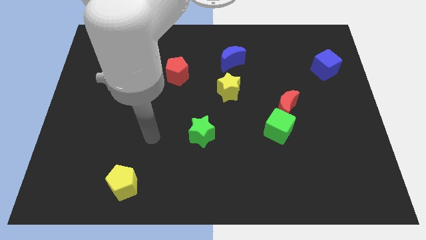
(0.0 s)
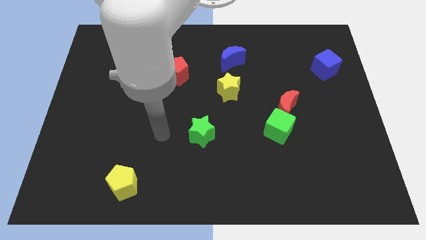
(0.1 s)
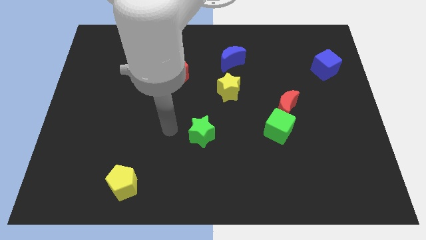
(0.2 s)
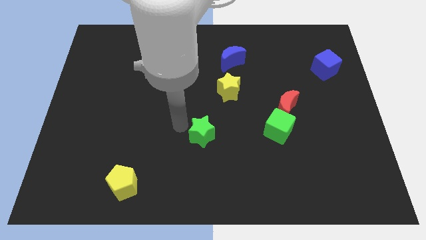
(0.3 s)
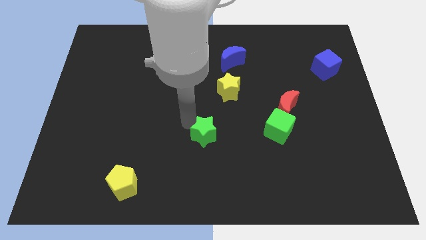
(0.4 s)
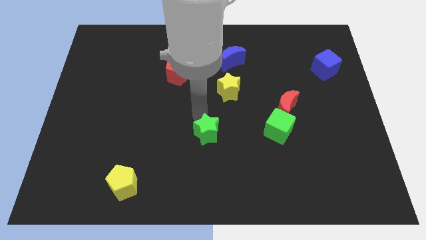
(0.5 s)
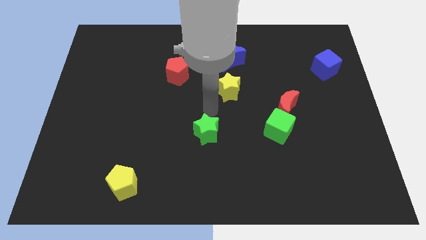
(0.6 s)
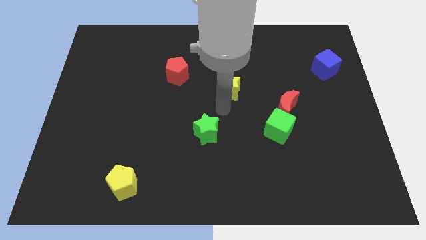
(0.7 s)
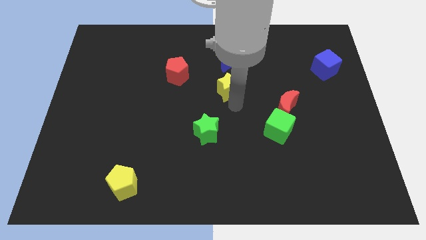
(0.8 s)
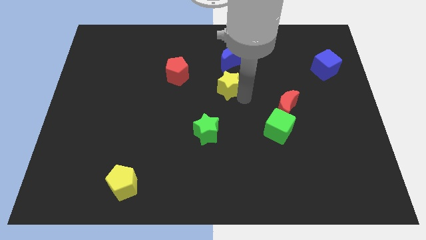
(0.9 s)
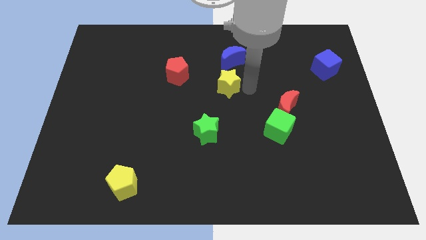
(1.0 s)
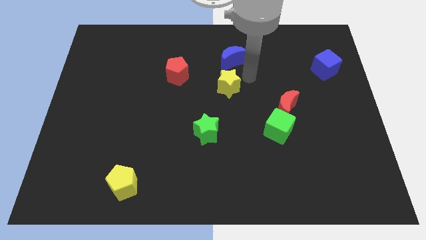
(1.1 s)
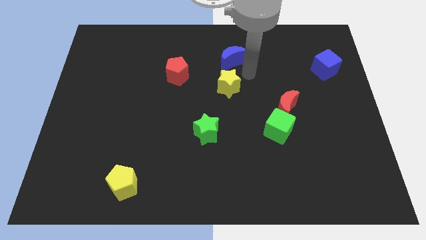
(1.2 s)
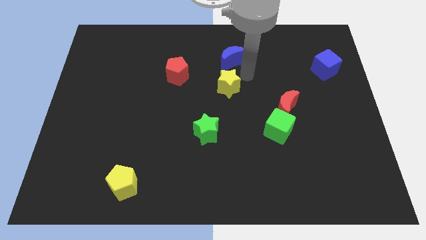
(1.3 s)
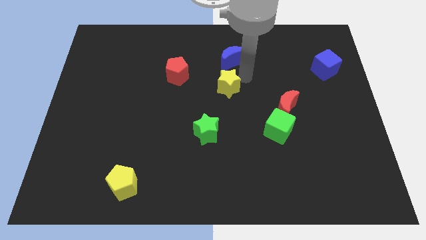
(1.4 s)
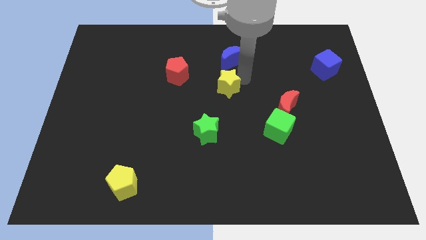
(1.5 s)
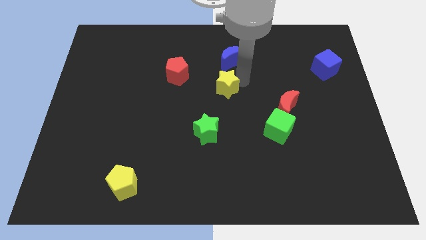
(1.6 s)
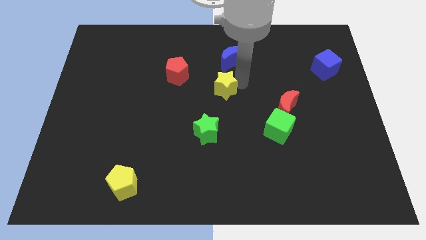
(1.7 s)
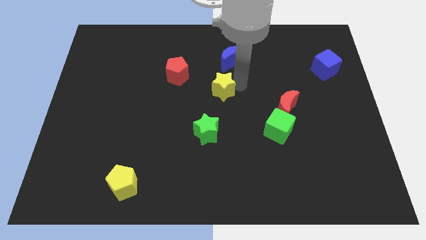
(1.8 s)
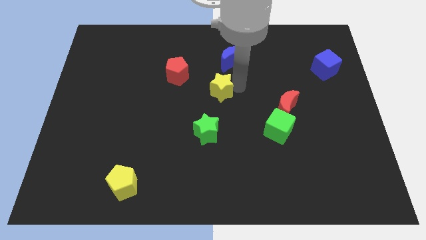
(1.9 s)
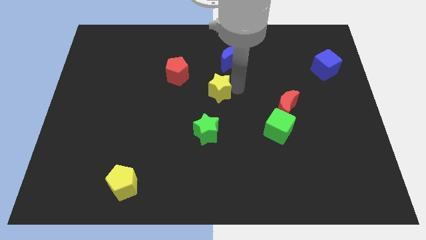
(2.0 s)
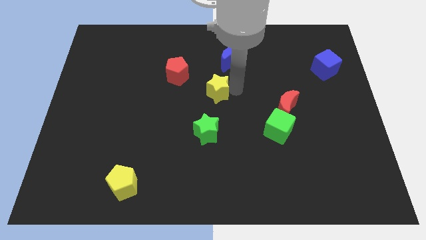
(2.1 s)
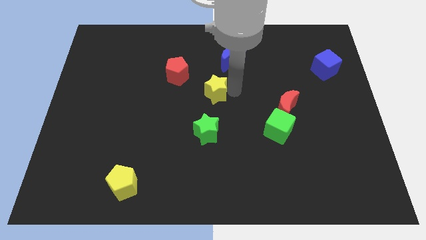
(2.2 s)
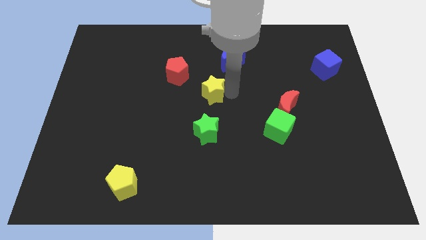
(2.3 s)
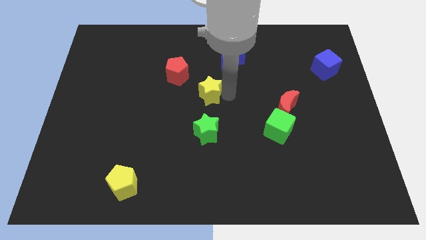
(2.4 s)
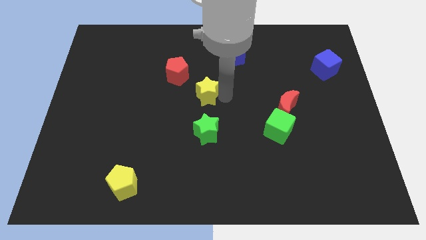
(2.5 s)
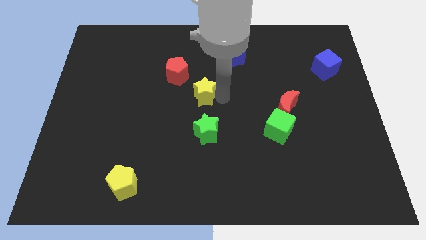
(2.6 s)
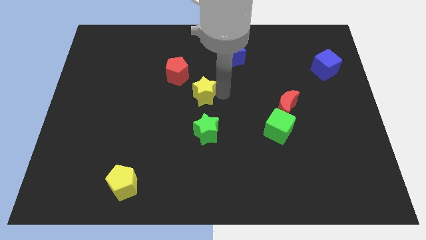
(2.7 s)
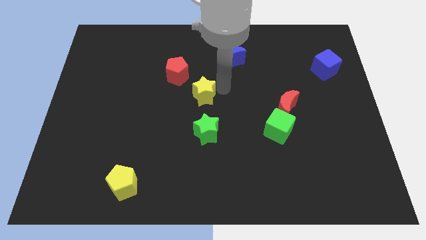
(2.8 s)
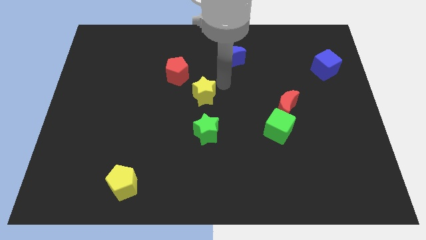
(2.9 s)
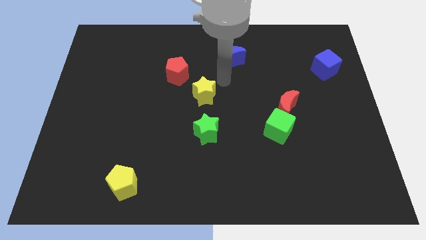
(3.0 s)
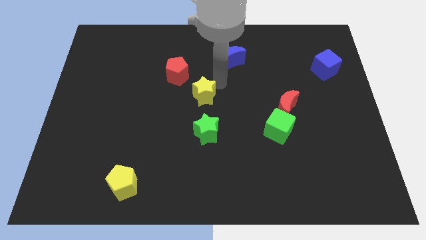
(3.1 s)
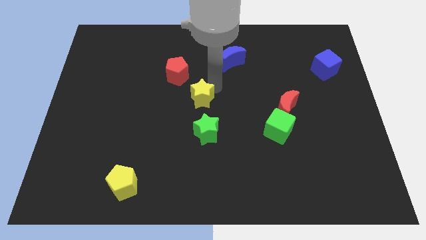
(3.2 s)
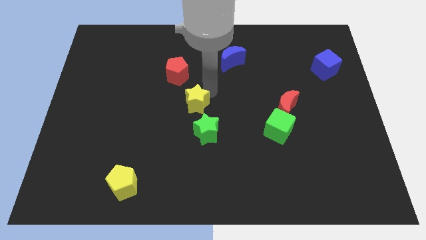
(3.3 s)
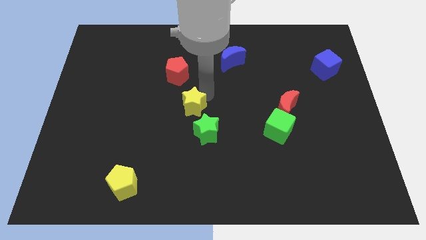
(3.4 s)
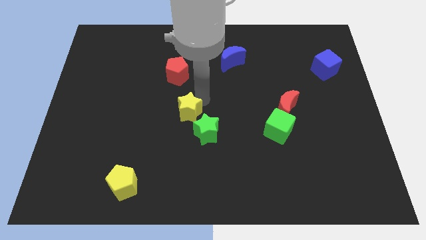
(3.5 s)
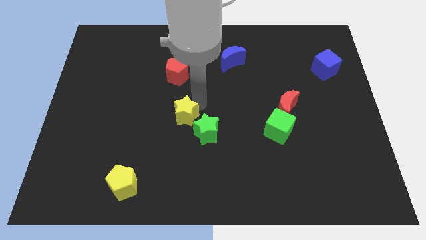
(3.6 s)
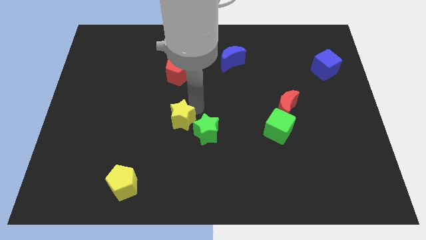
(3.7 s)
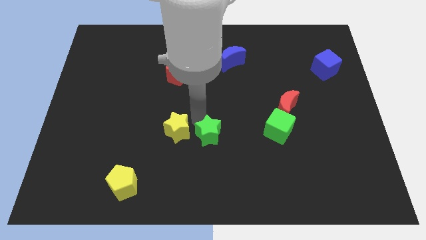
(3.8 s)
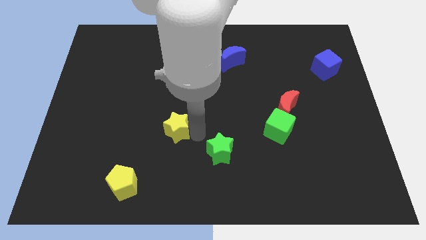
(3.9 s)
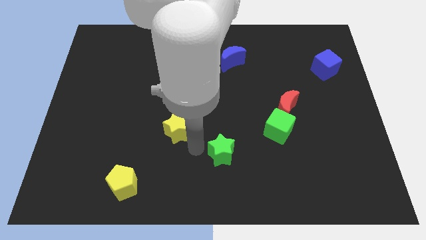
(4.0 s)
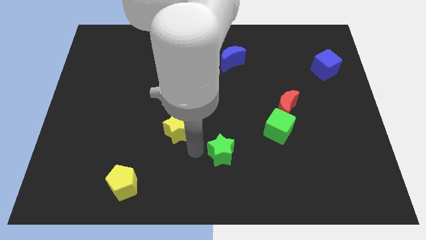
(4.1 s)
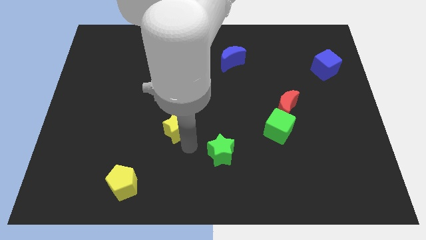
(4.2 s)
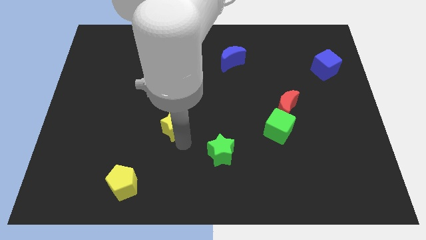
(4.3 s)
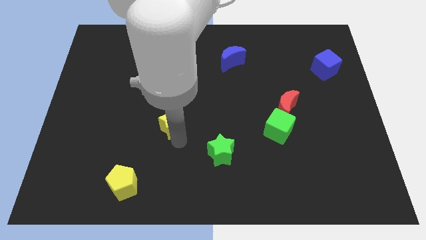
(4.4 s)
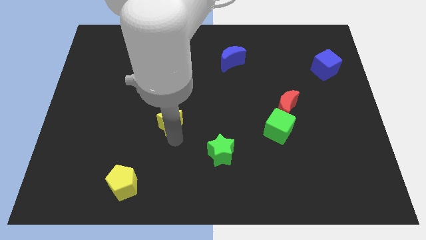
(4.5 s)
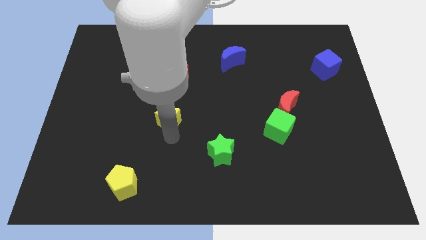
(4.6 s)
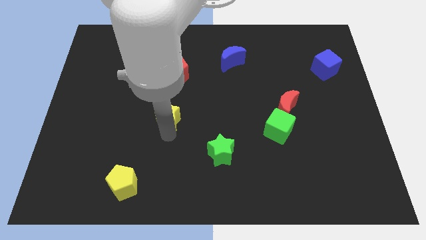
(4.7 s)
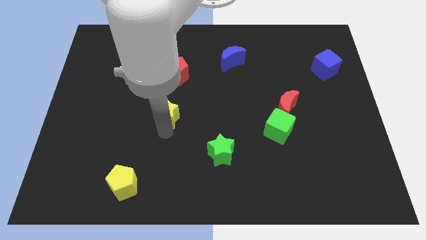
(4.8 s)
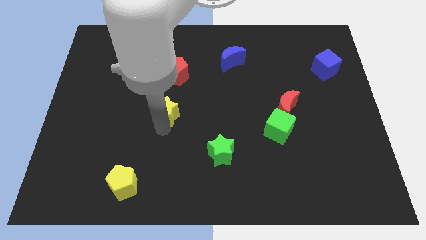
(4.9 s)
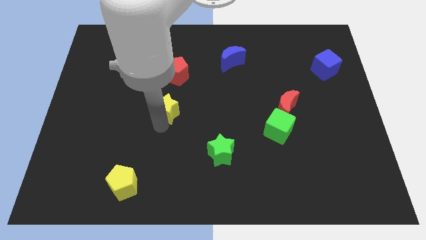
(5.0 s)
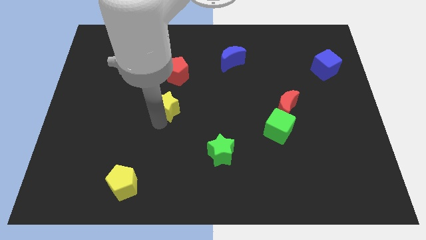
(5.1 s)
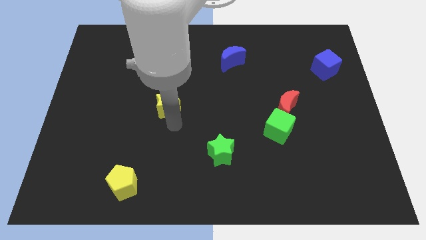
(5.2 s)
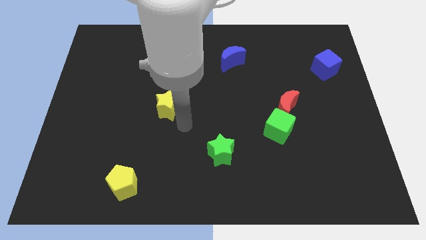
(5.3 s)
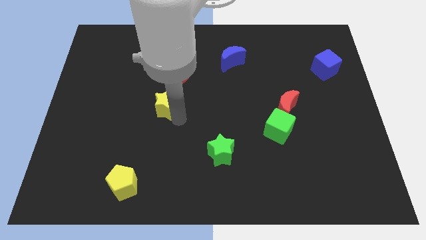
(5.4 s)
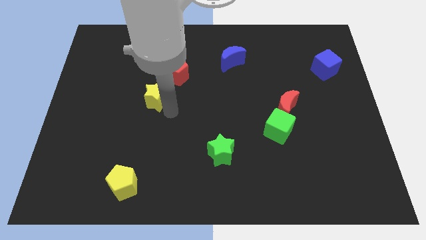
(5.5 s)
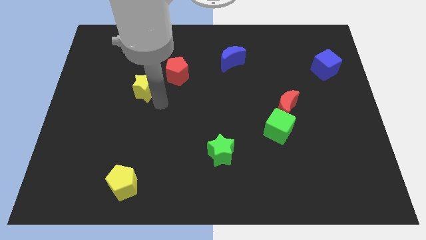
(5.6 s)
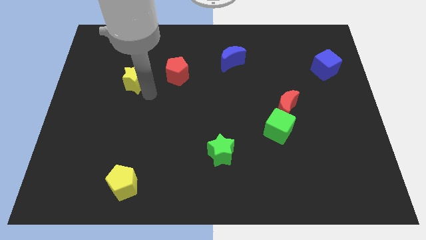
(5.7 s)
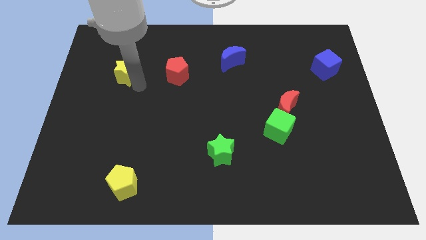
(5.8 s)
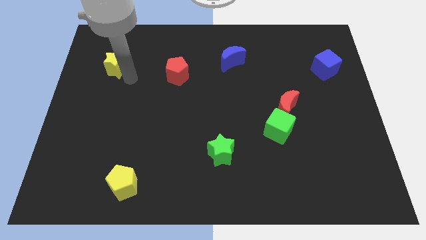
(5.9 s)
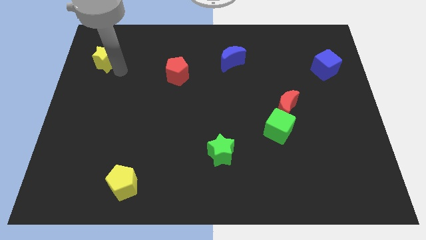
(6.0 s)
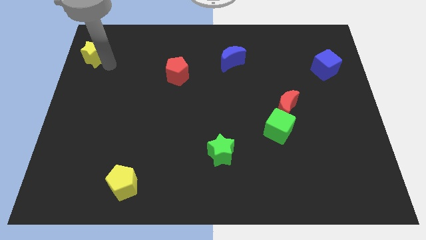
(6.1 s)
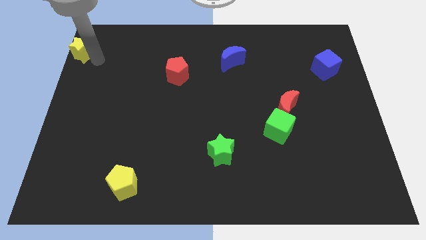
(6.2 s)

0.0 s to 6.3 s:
put the yellow star to the top left corner

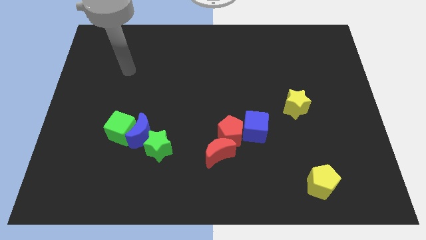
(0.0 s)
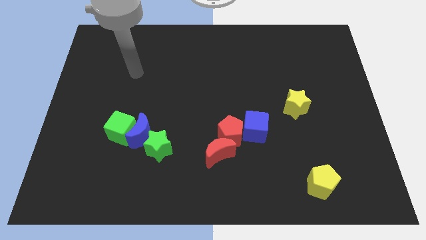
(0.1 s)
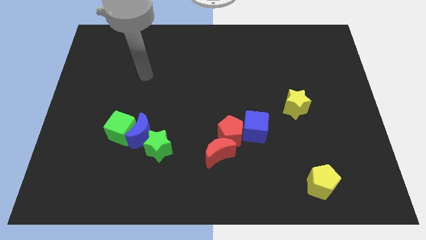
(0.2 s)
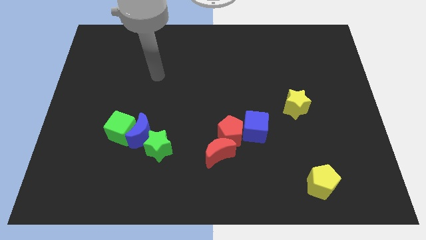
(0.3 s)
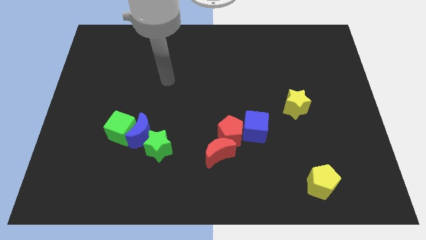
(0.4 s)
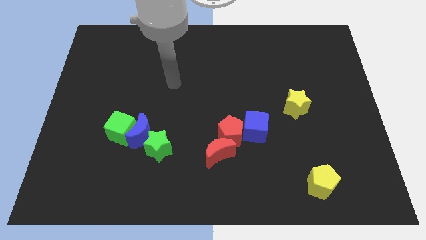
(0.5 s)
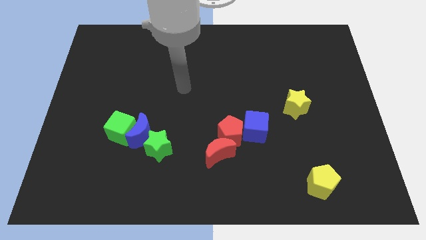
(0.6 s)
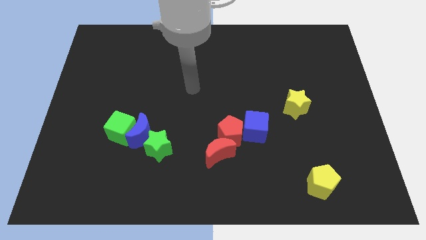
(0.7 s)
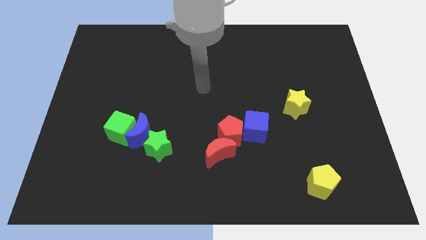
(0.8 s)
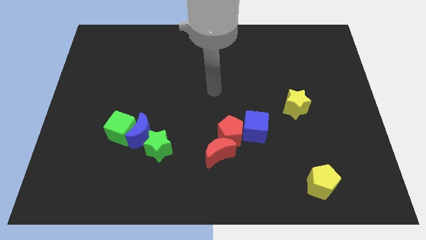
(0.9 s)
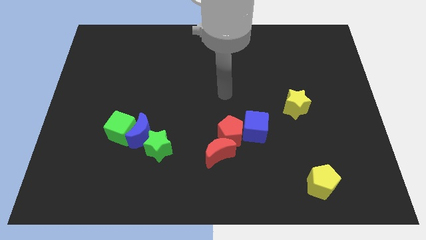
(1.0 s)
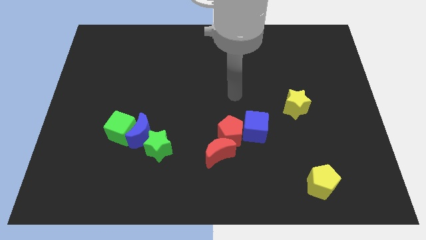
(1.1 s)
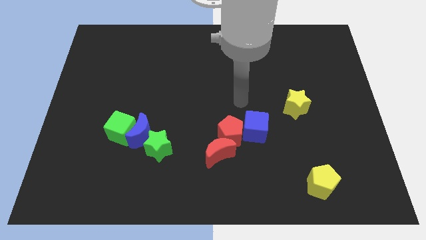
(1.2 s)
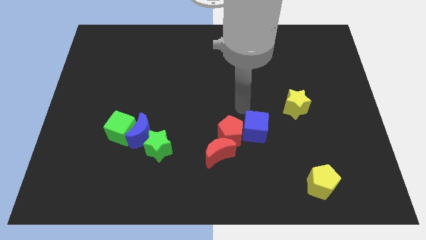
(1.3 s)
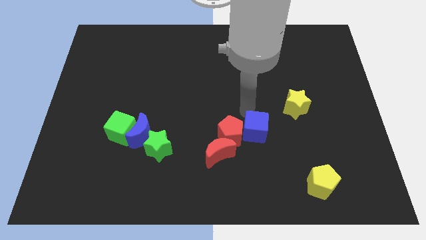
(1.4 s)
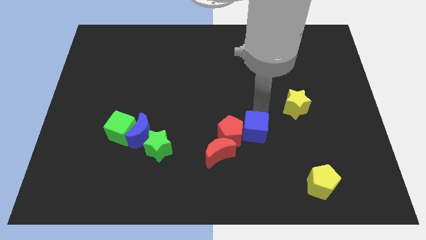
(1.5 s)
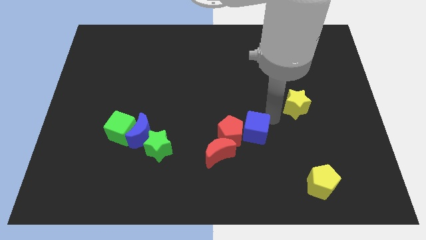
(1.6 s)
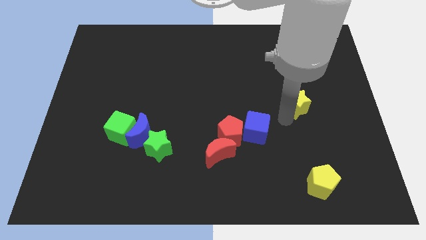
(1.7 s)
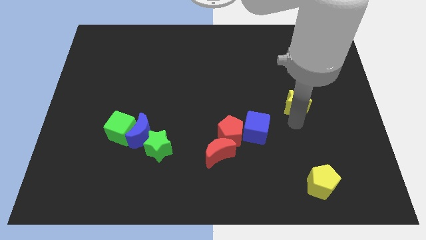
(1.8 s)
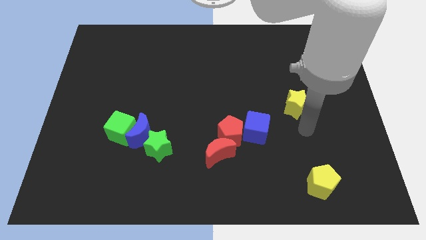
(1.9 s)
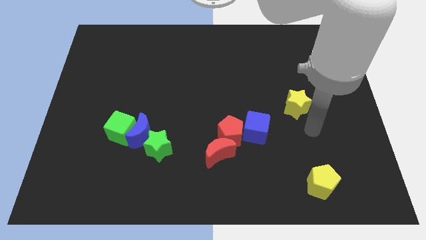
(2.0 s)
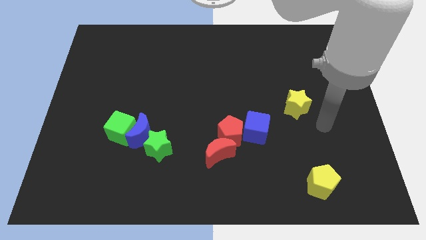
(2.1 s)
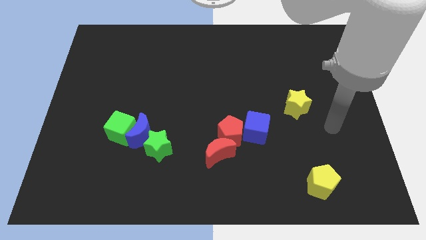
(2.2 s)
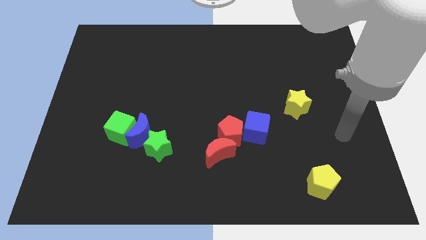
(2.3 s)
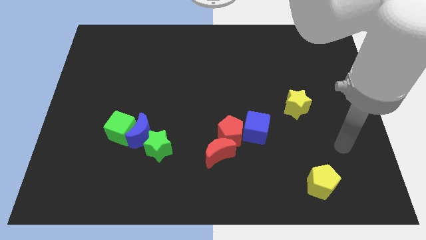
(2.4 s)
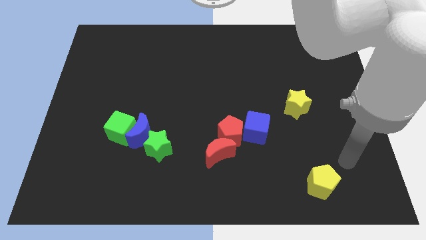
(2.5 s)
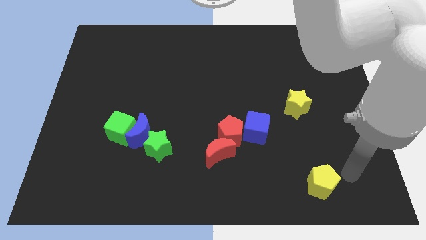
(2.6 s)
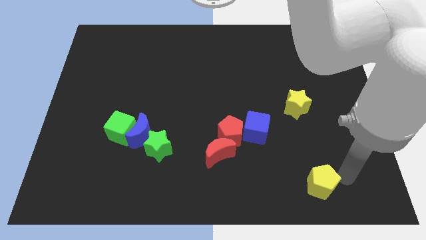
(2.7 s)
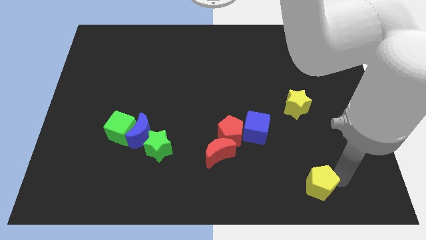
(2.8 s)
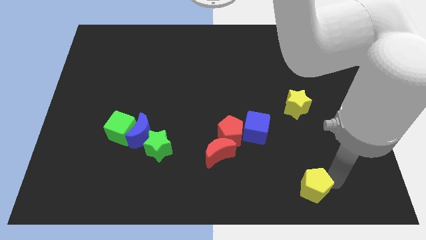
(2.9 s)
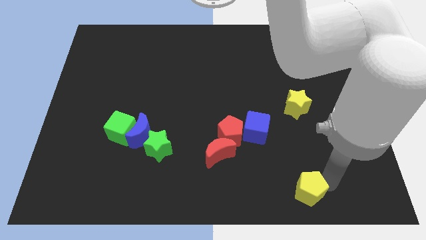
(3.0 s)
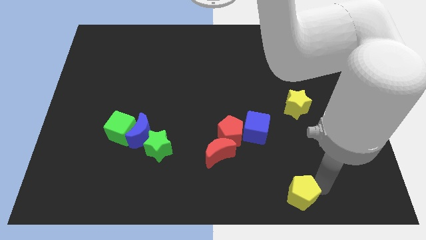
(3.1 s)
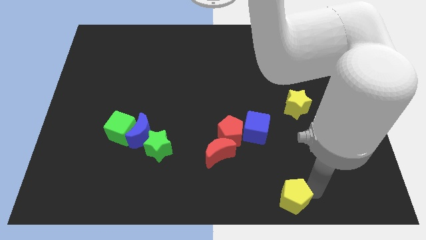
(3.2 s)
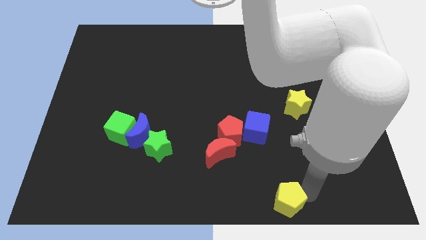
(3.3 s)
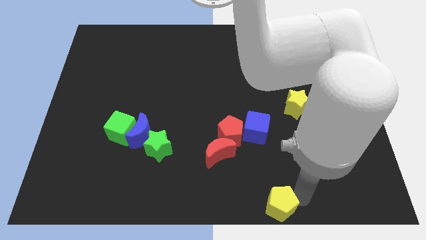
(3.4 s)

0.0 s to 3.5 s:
put the yellow pentagon to the bottom
